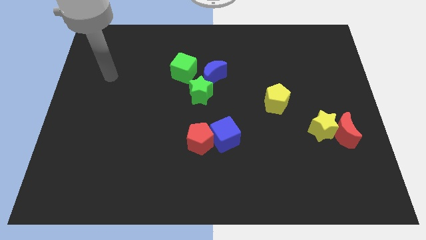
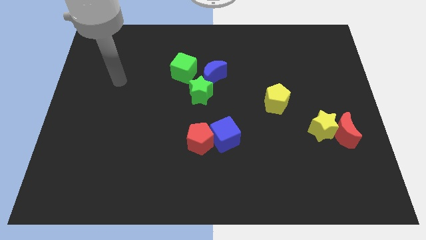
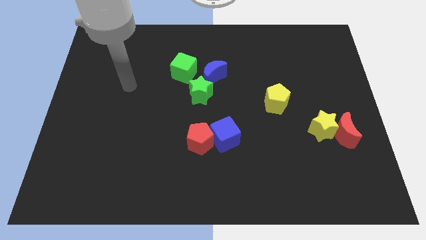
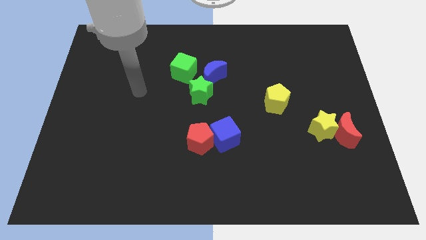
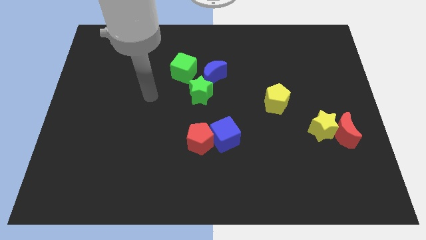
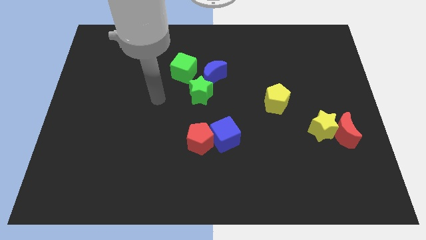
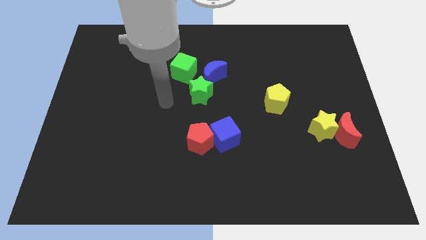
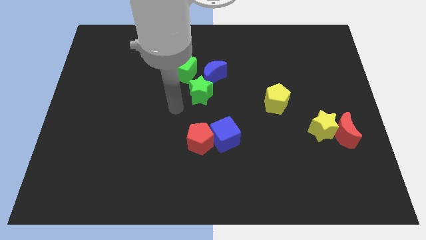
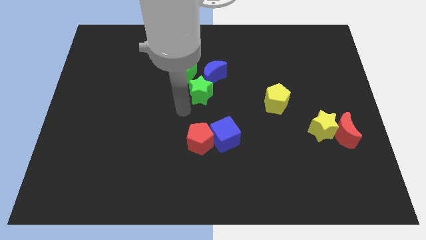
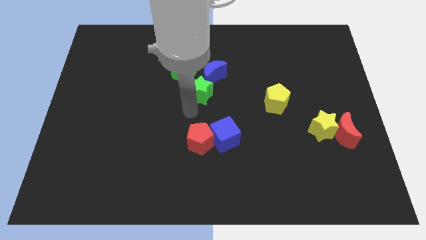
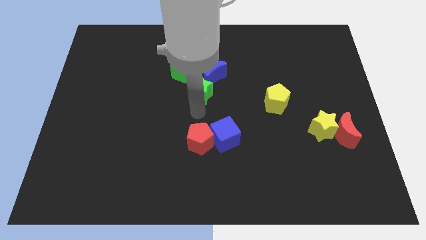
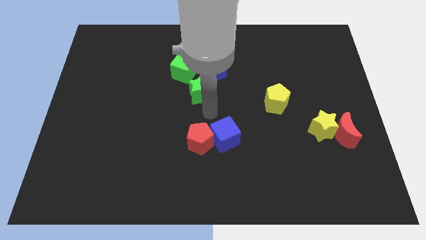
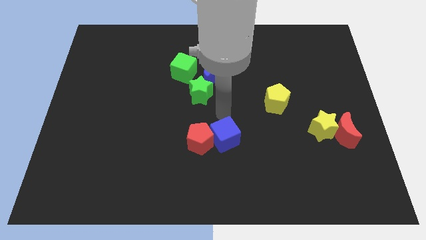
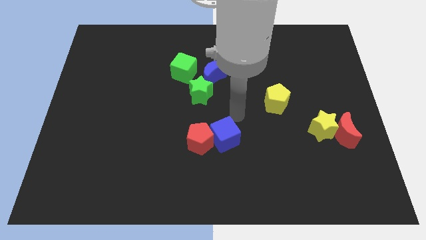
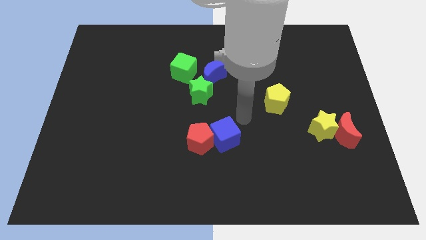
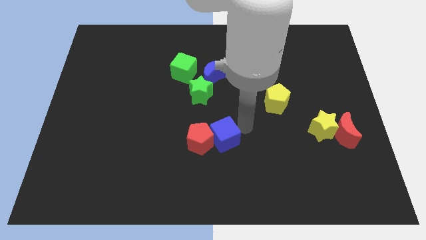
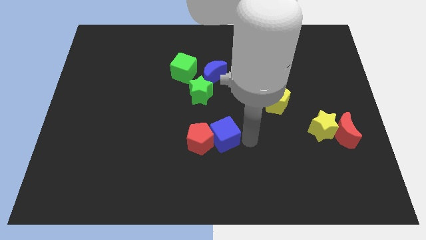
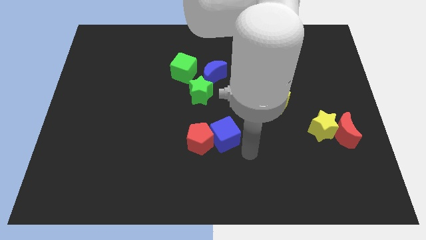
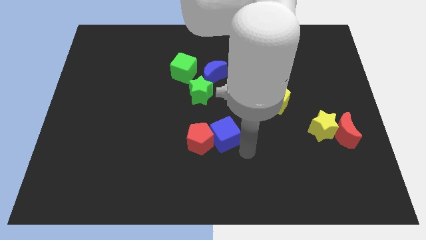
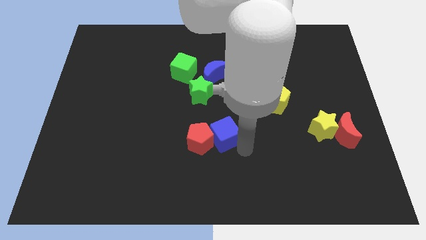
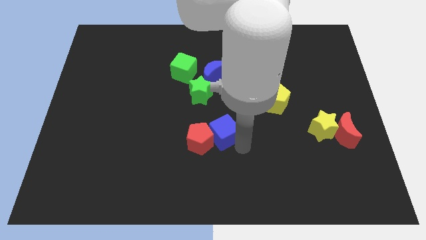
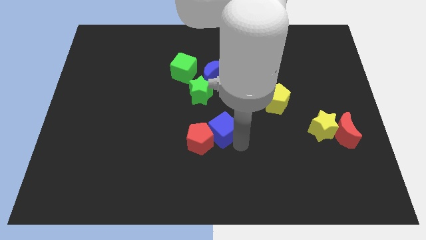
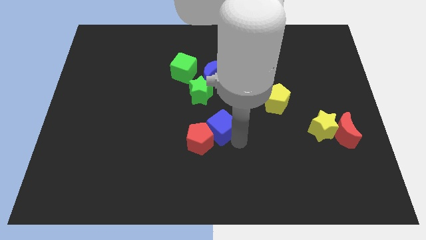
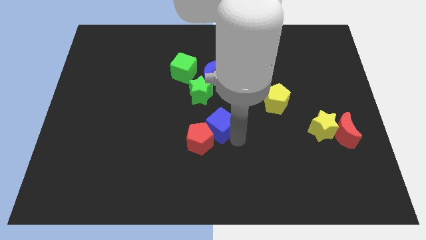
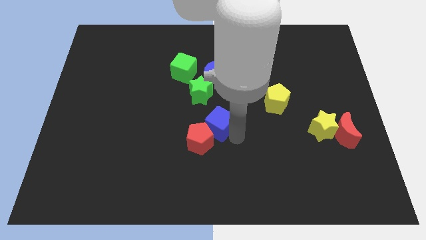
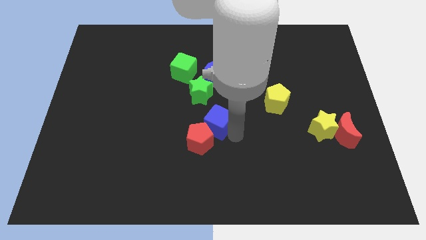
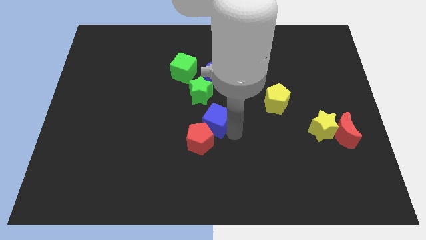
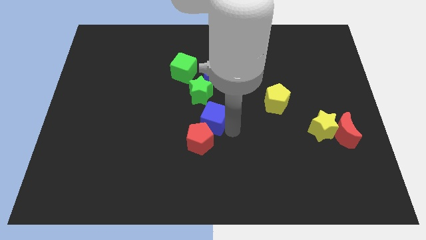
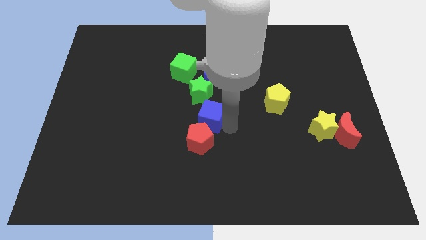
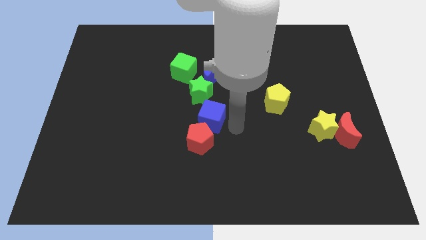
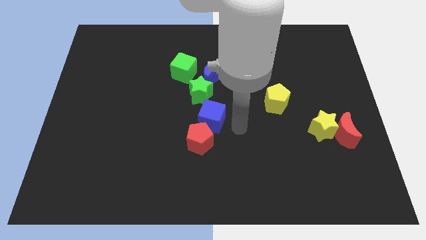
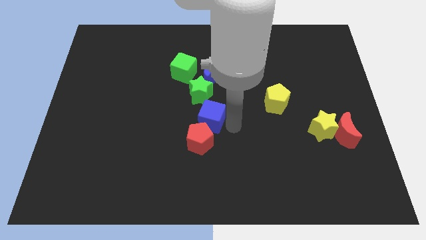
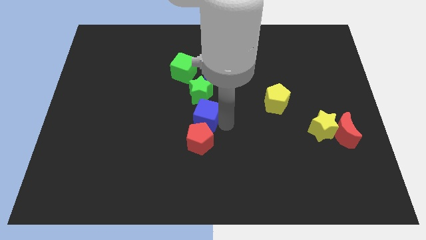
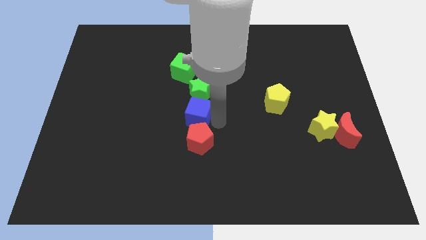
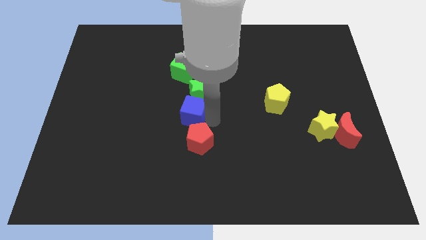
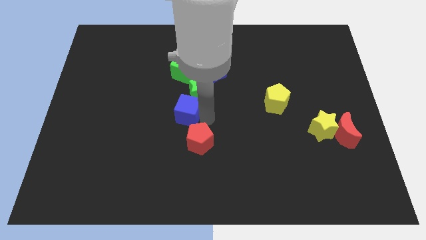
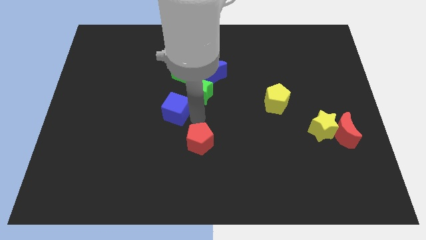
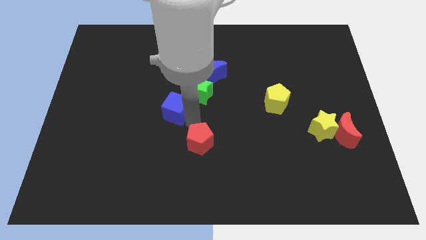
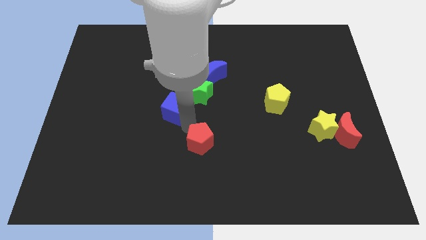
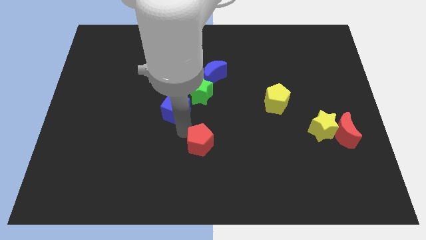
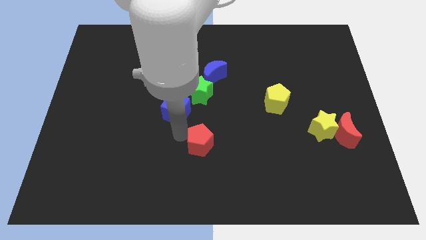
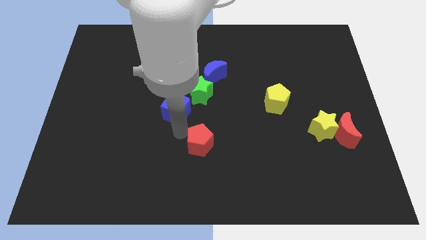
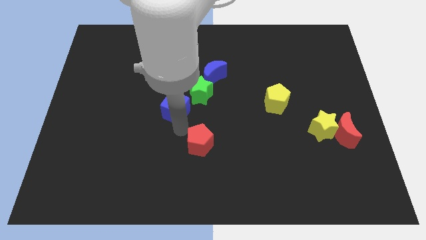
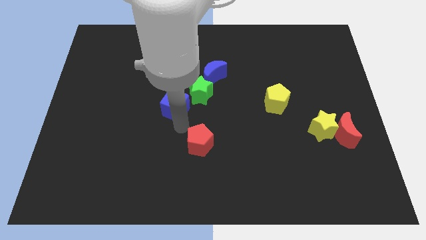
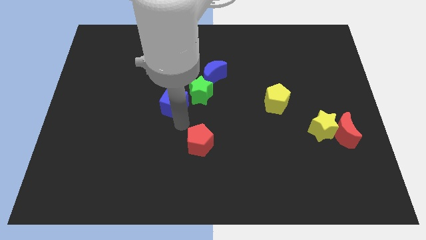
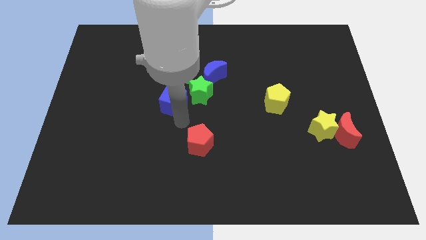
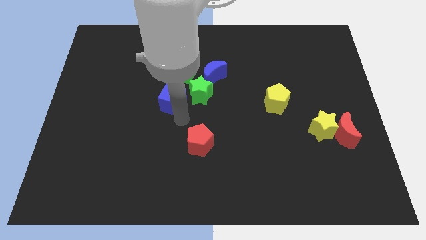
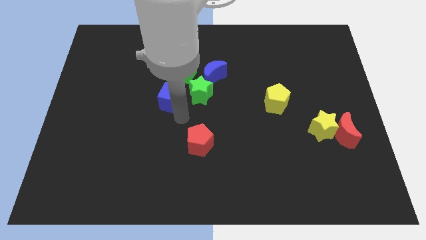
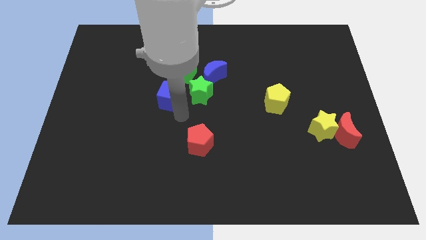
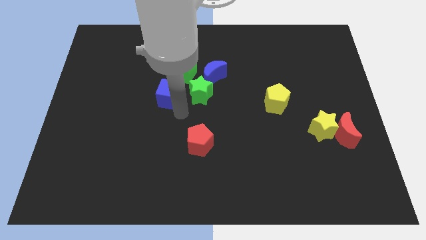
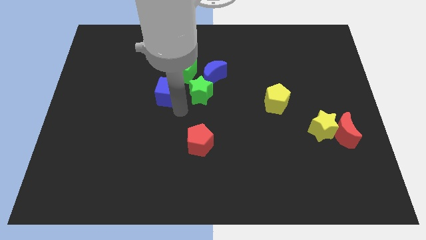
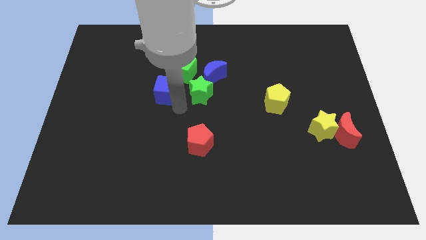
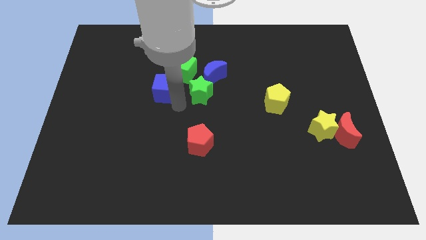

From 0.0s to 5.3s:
slide the blue cube left of the blue moon

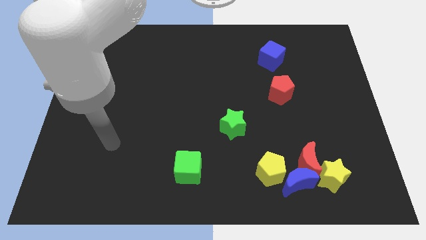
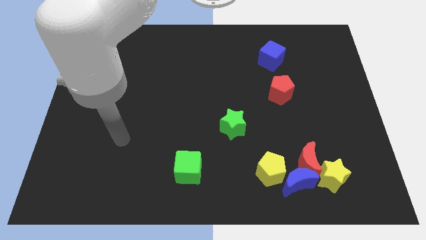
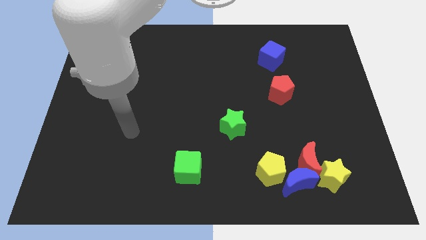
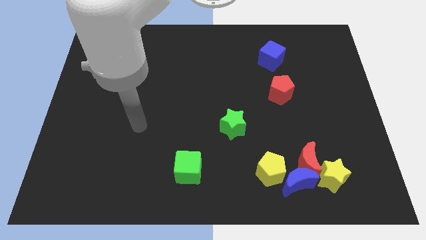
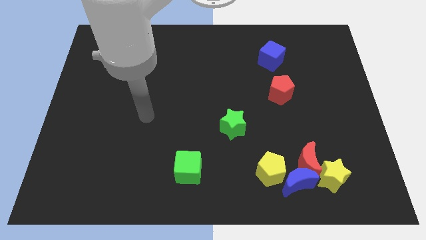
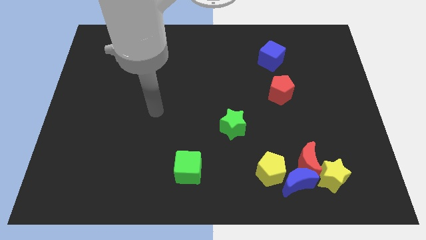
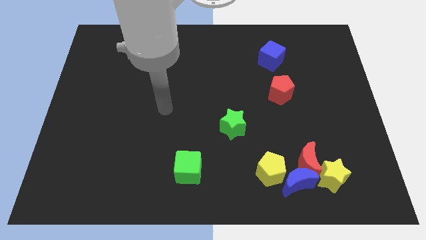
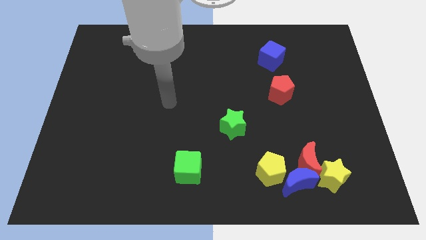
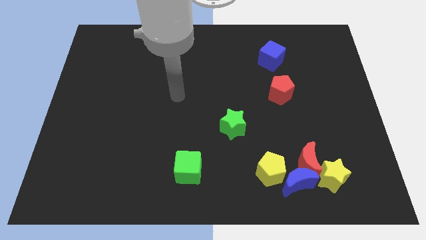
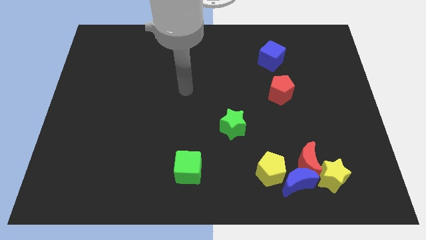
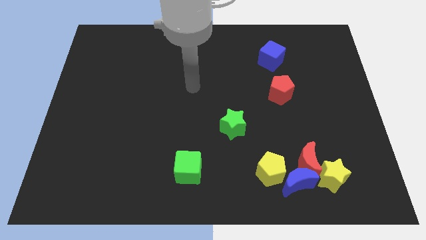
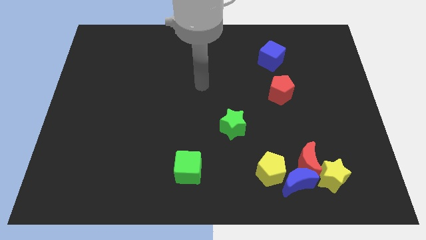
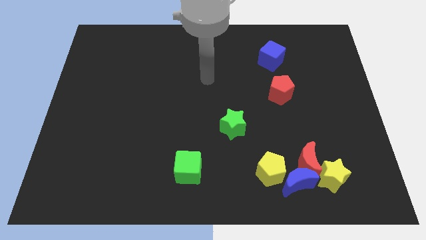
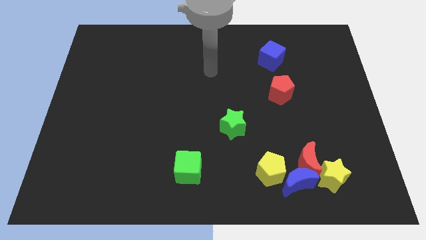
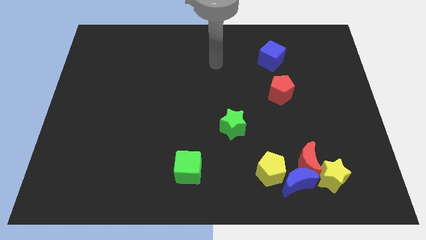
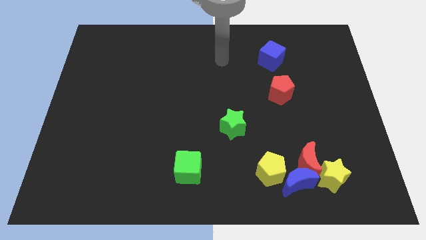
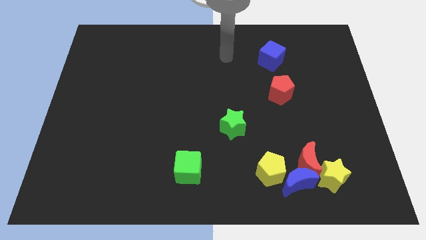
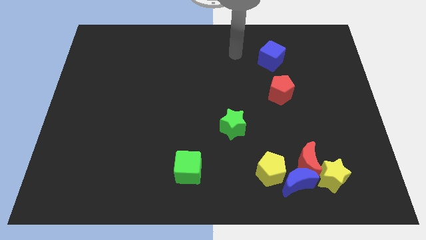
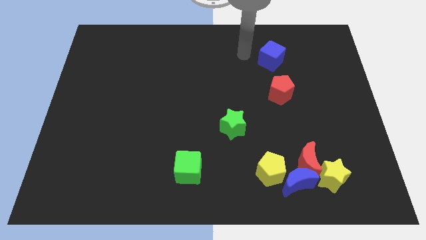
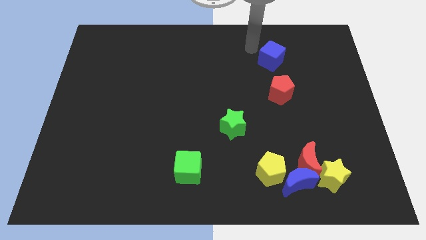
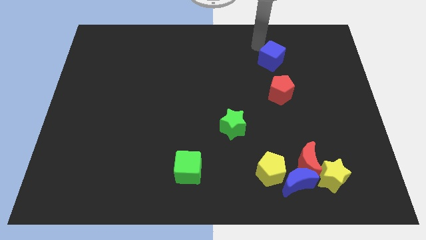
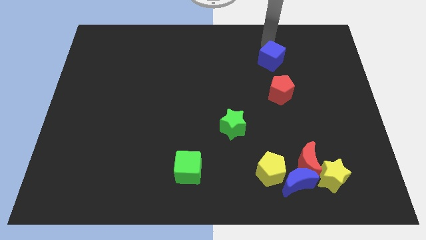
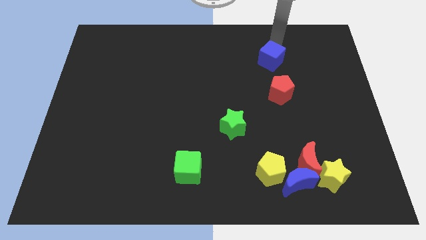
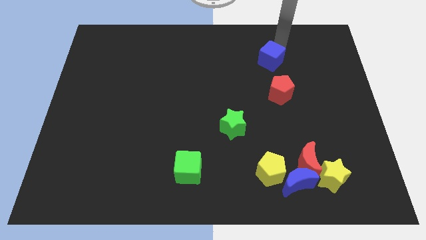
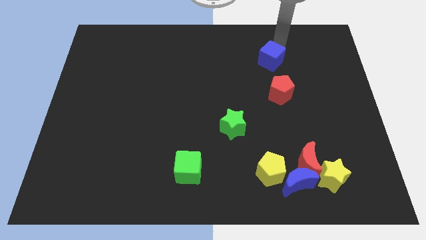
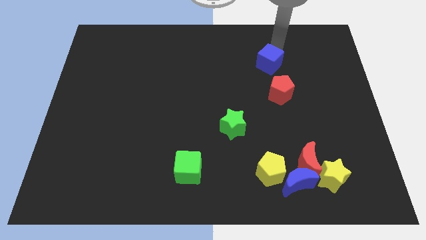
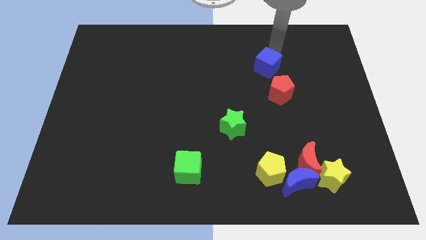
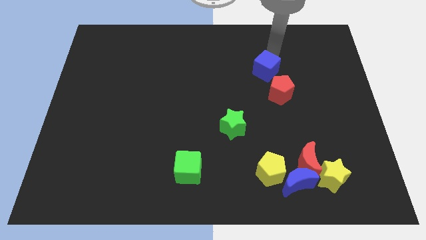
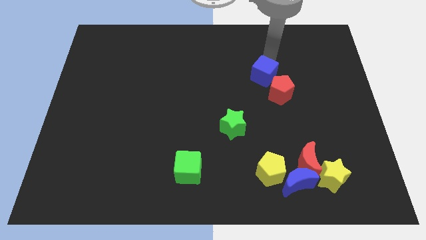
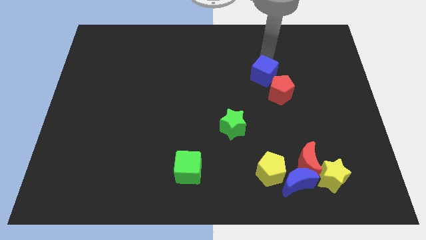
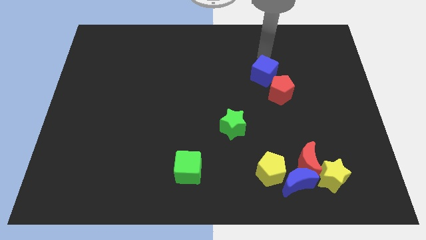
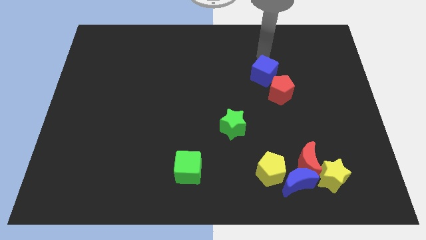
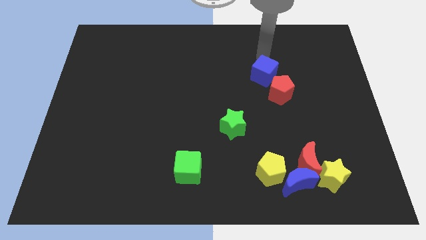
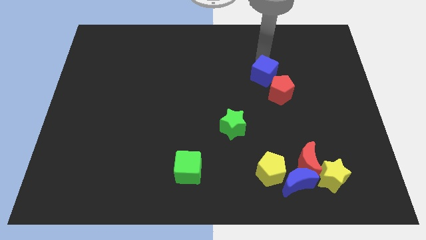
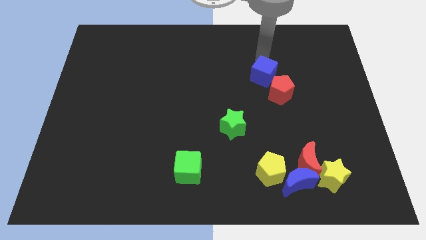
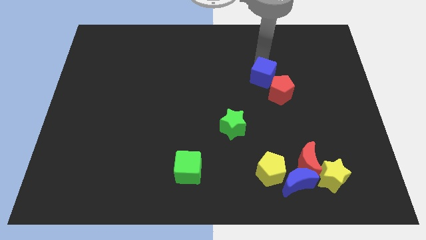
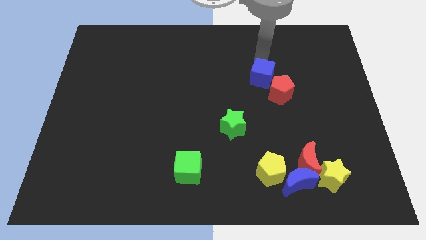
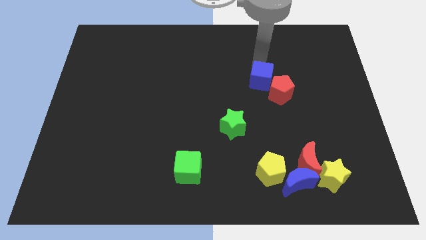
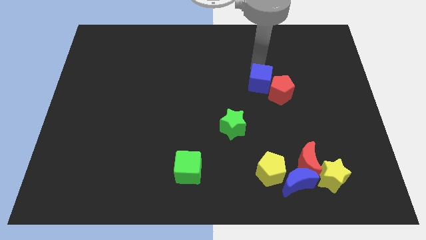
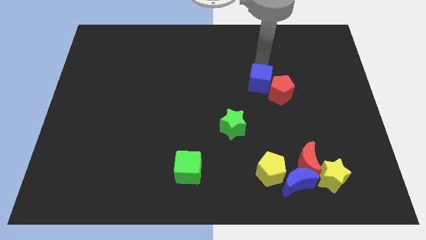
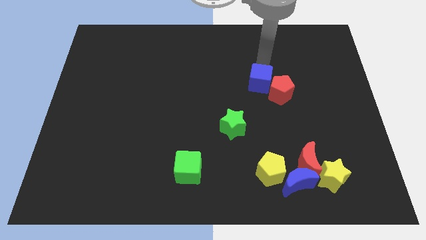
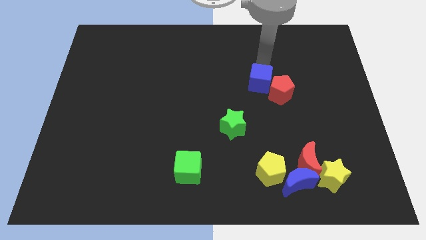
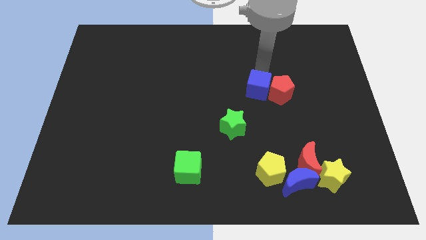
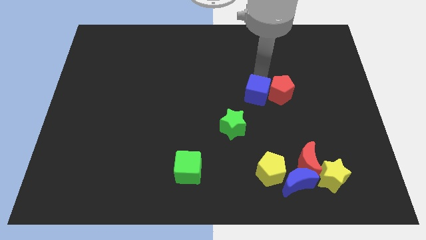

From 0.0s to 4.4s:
slide the blue cube to the top right of the green star
